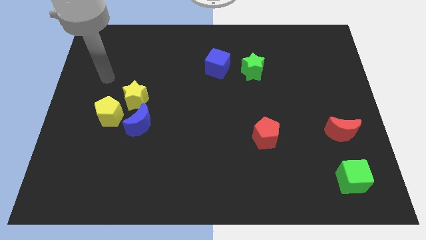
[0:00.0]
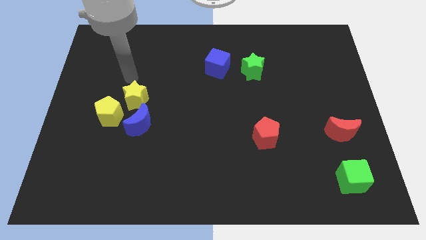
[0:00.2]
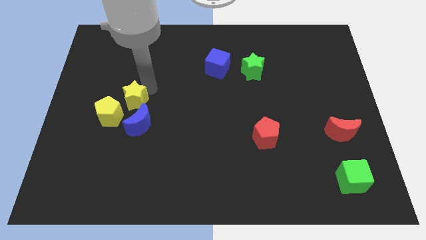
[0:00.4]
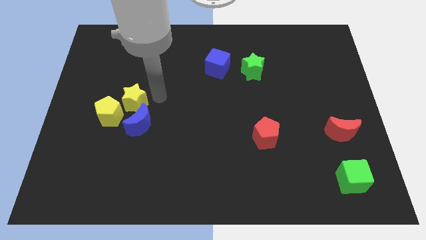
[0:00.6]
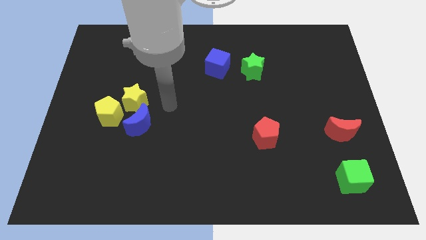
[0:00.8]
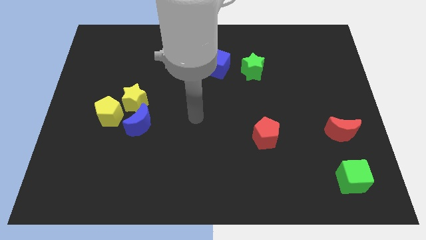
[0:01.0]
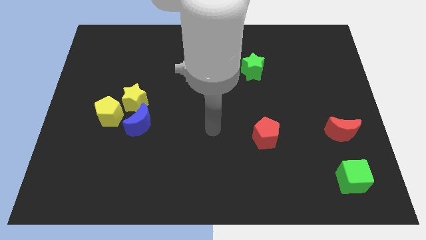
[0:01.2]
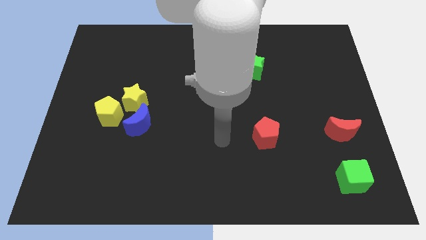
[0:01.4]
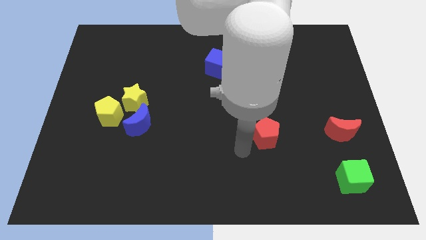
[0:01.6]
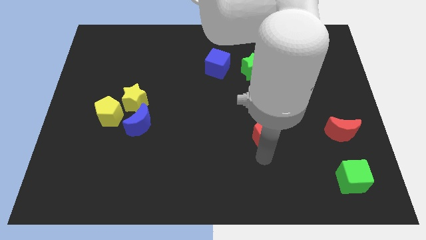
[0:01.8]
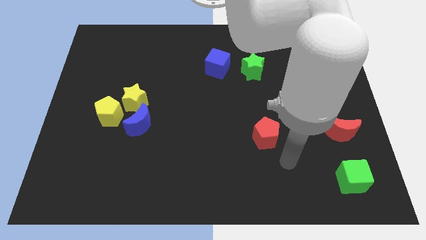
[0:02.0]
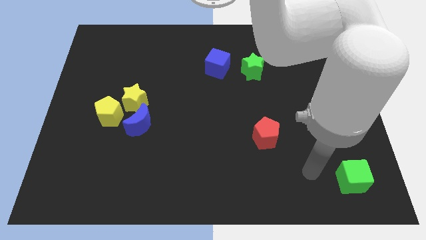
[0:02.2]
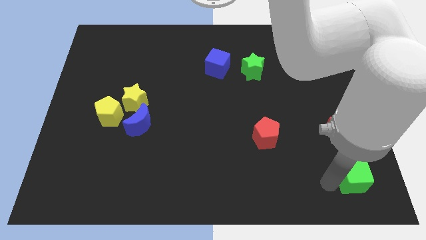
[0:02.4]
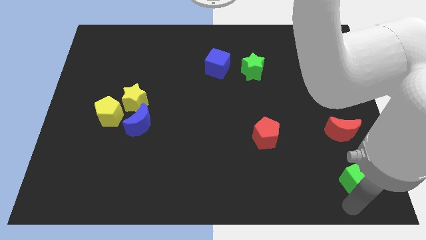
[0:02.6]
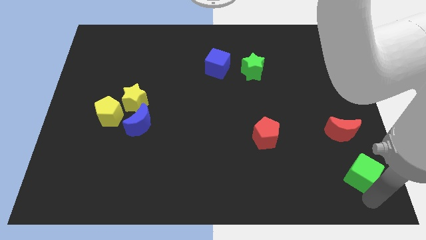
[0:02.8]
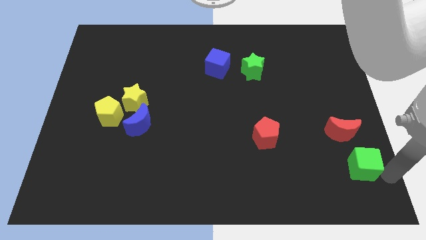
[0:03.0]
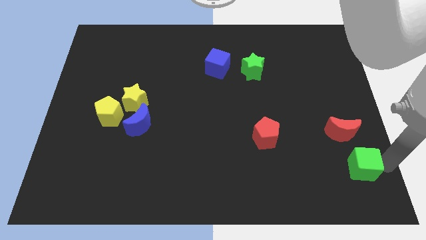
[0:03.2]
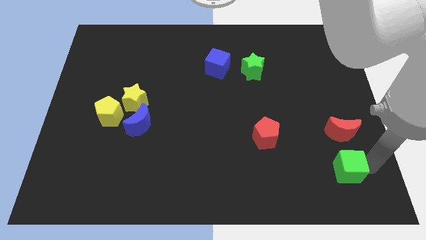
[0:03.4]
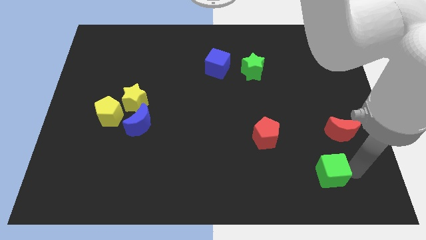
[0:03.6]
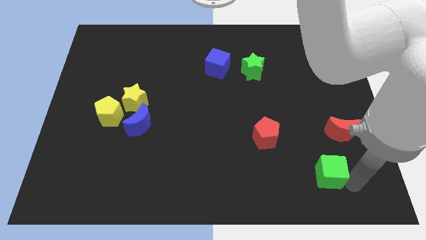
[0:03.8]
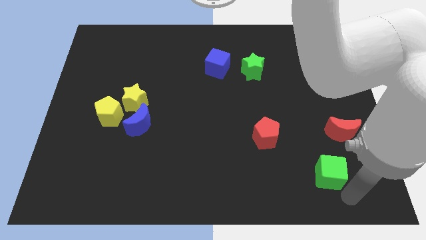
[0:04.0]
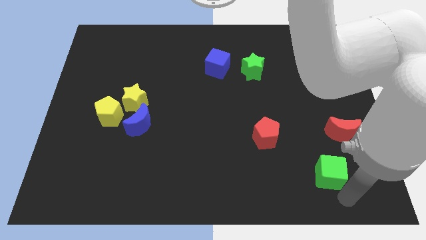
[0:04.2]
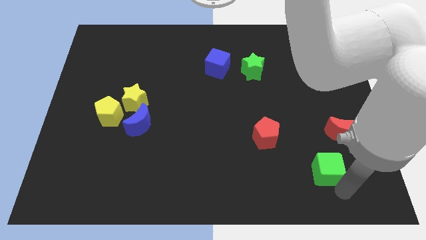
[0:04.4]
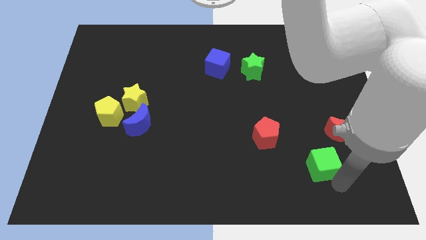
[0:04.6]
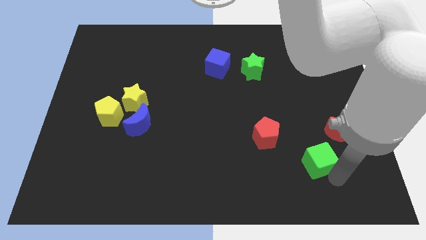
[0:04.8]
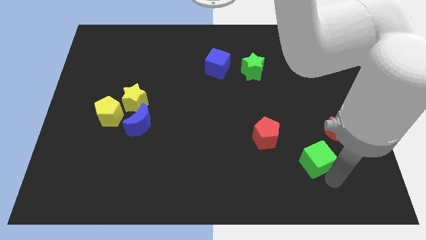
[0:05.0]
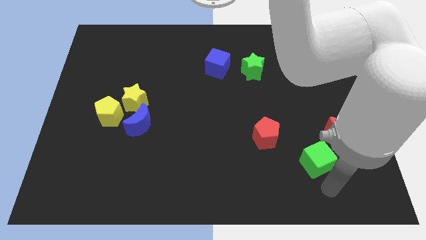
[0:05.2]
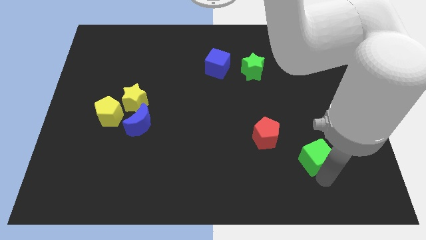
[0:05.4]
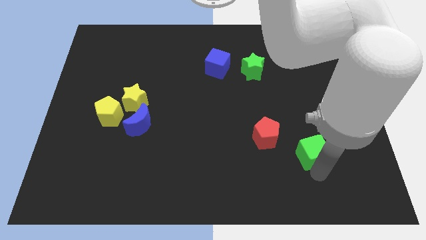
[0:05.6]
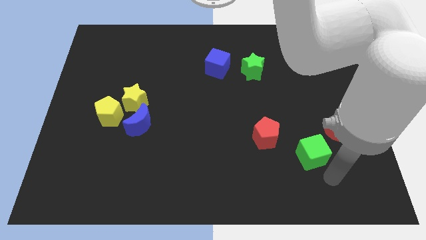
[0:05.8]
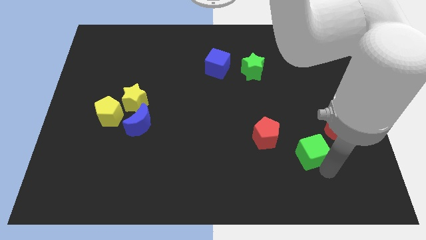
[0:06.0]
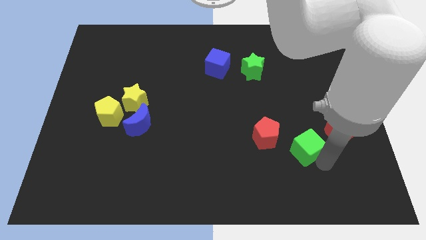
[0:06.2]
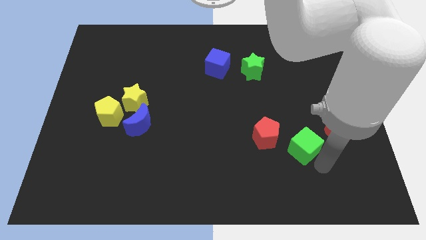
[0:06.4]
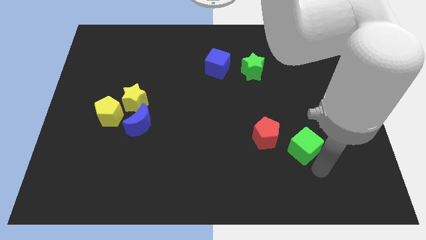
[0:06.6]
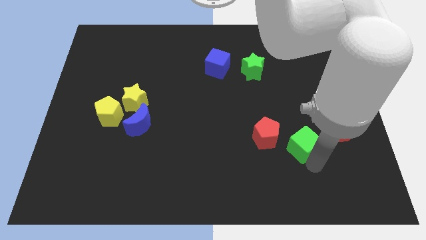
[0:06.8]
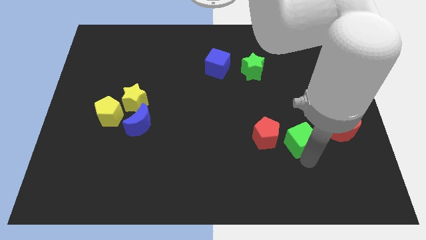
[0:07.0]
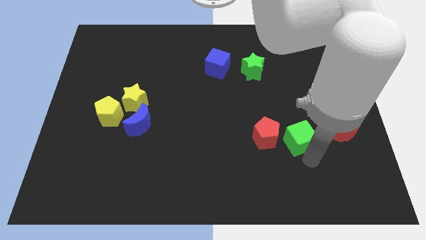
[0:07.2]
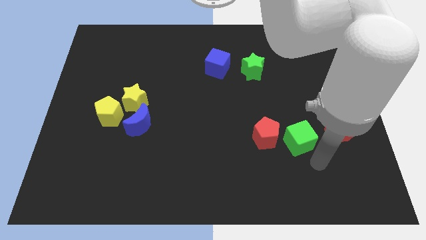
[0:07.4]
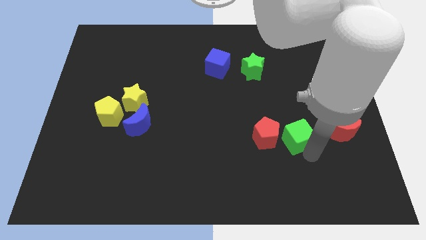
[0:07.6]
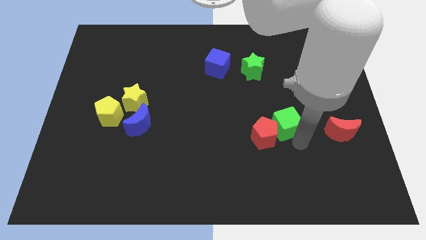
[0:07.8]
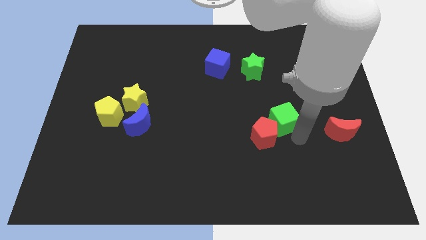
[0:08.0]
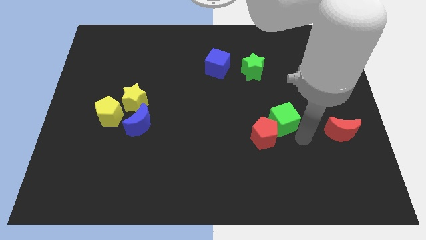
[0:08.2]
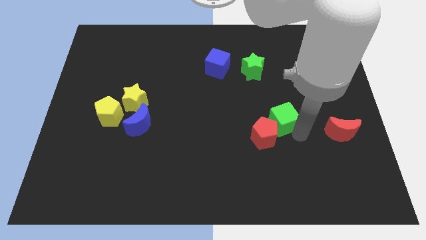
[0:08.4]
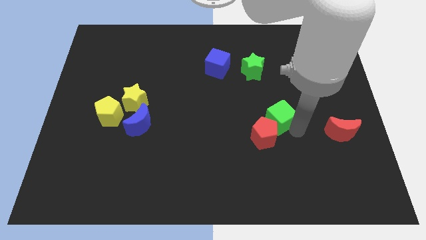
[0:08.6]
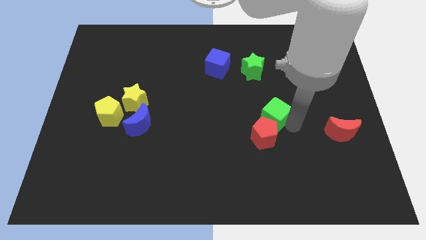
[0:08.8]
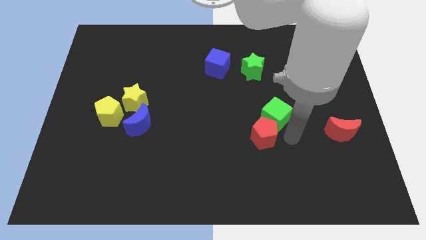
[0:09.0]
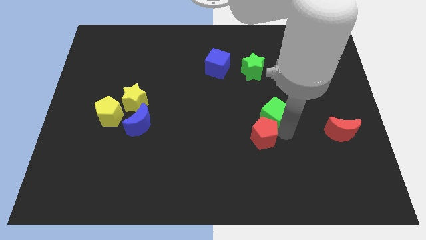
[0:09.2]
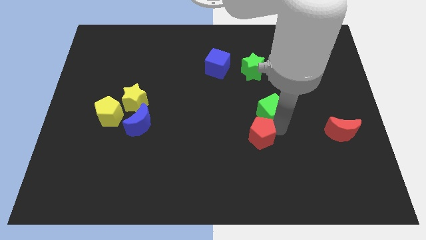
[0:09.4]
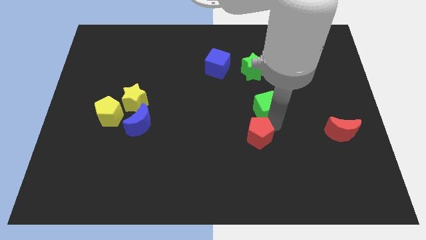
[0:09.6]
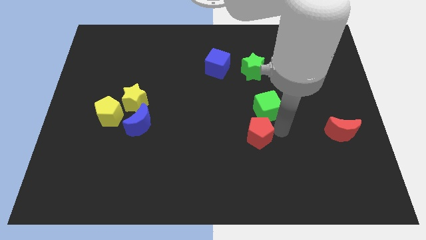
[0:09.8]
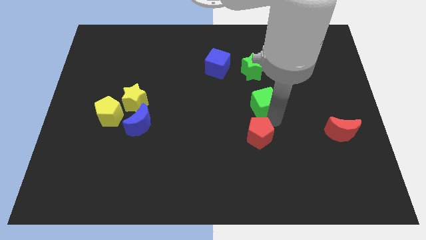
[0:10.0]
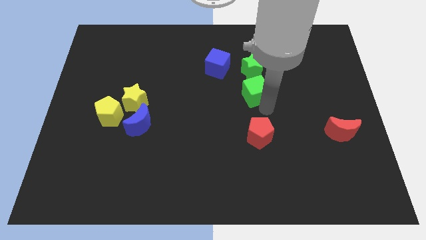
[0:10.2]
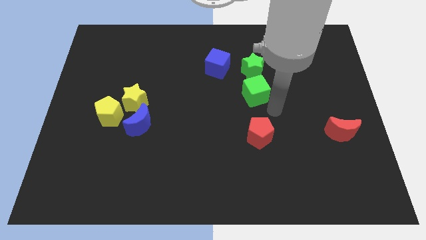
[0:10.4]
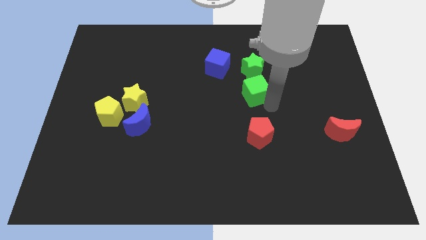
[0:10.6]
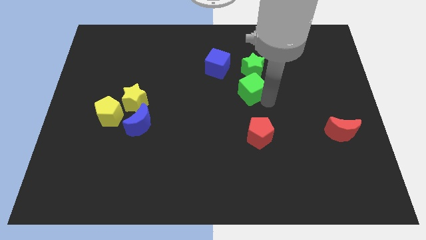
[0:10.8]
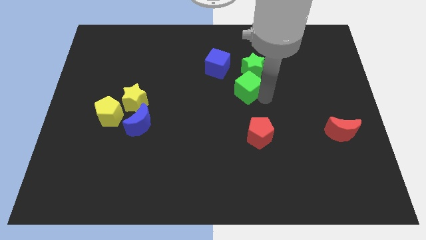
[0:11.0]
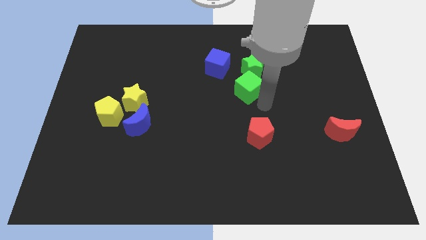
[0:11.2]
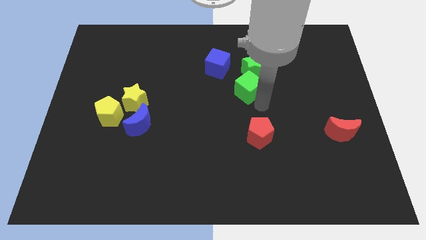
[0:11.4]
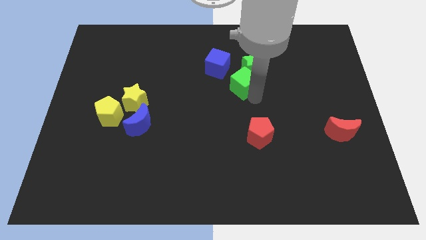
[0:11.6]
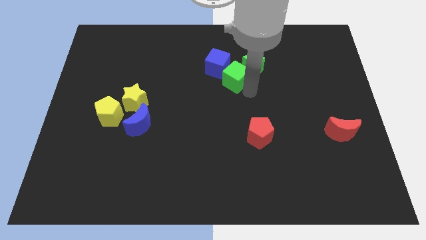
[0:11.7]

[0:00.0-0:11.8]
move the green cube to the blue cube

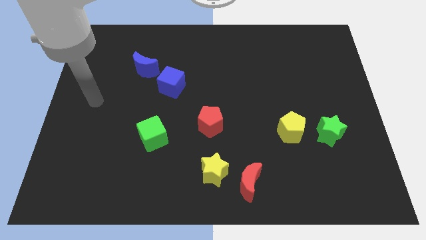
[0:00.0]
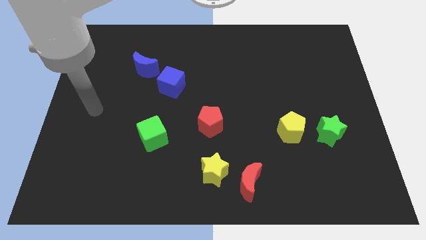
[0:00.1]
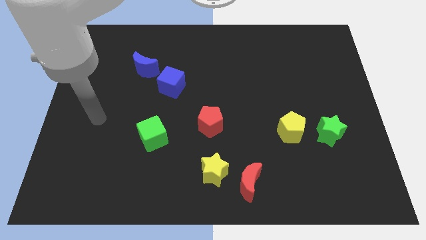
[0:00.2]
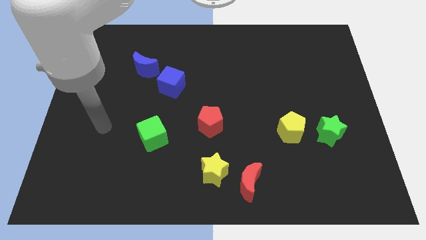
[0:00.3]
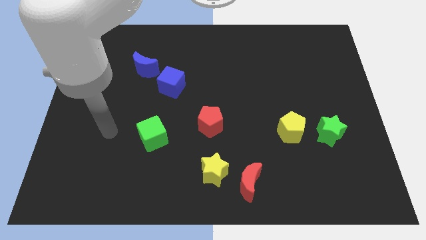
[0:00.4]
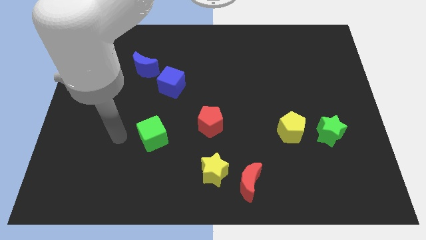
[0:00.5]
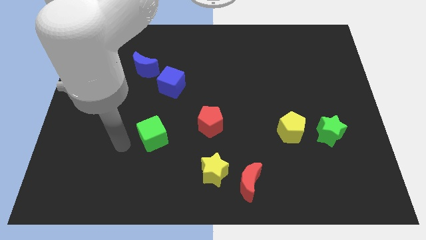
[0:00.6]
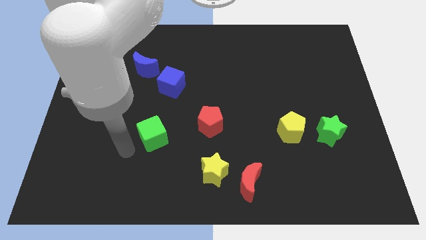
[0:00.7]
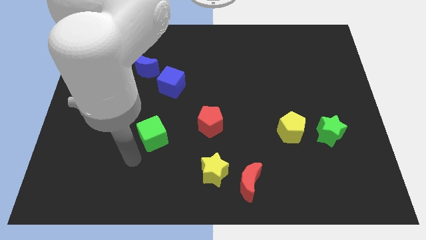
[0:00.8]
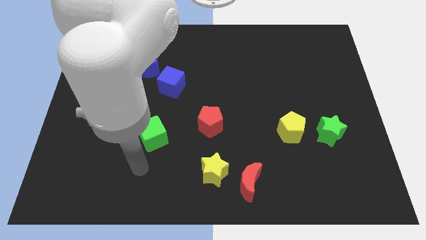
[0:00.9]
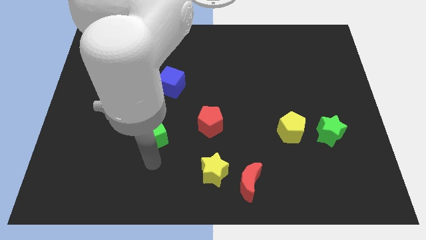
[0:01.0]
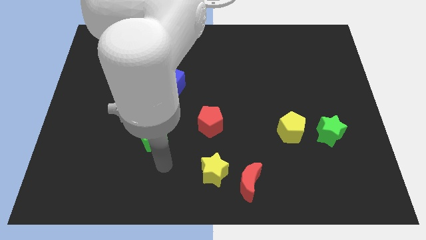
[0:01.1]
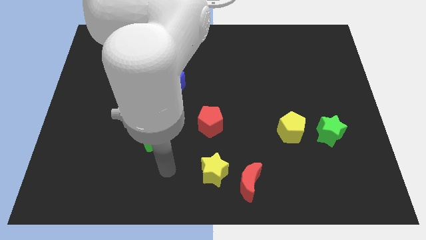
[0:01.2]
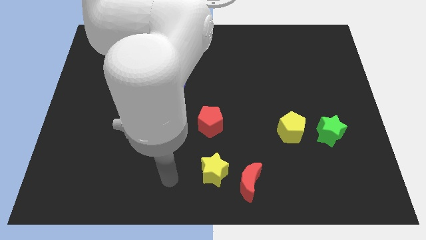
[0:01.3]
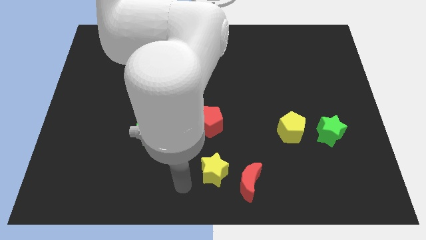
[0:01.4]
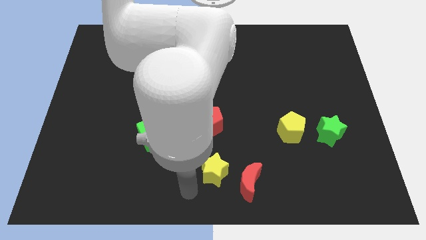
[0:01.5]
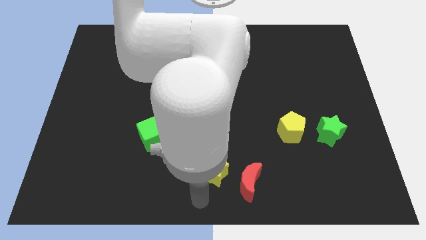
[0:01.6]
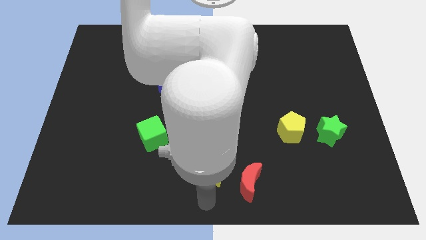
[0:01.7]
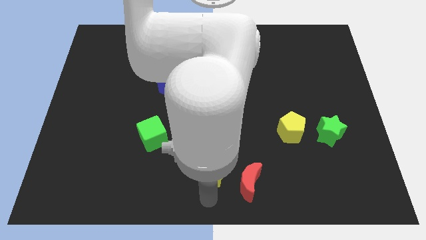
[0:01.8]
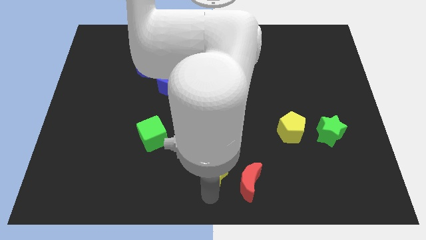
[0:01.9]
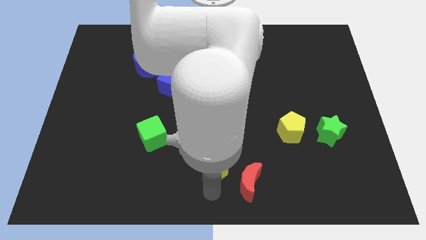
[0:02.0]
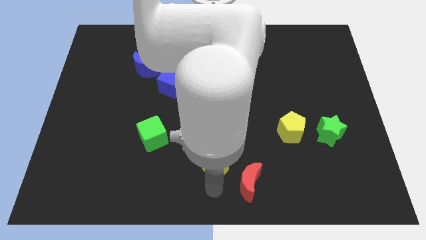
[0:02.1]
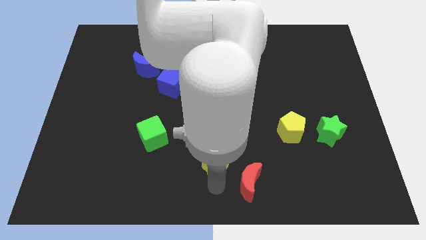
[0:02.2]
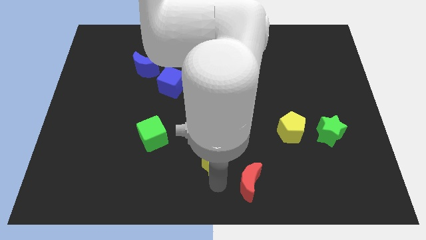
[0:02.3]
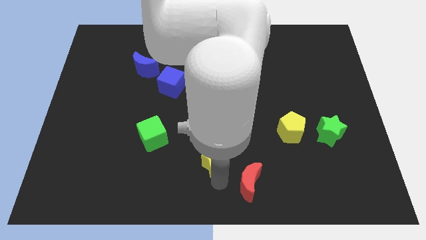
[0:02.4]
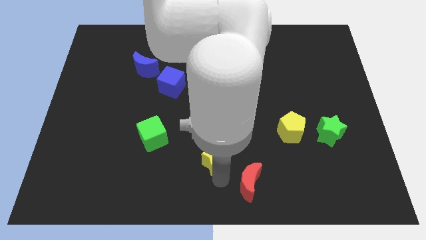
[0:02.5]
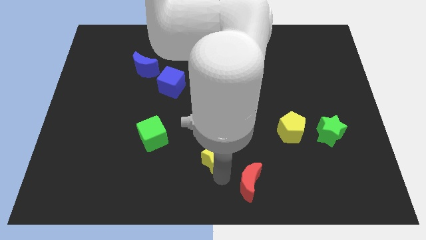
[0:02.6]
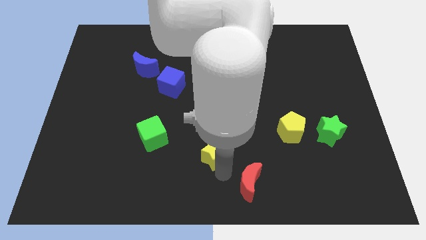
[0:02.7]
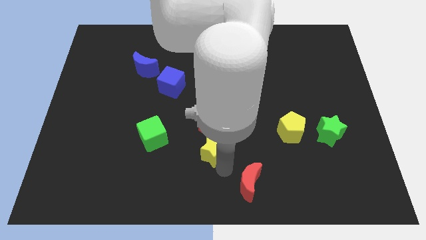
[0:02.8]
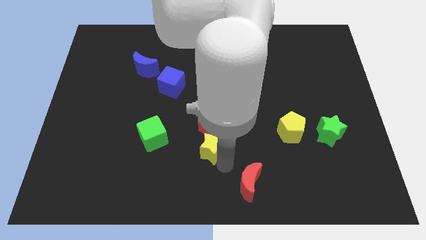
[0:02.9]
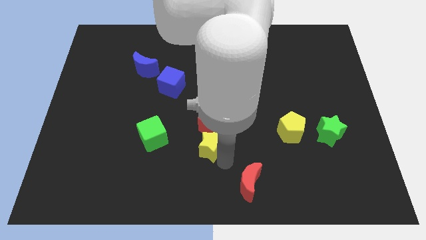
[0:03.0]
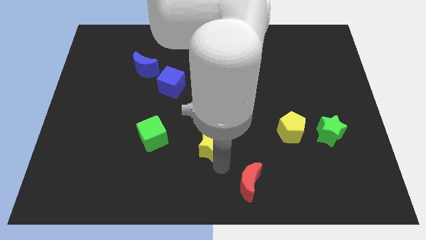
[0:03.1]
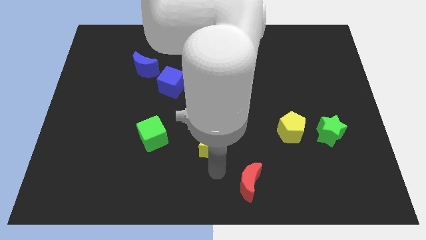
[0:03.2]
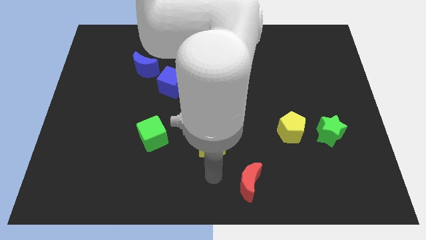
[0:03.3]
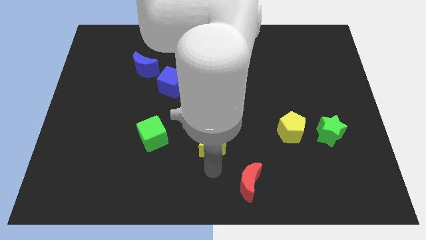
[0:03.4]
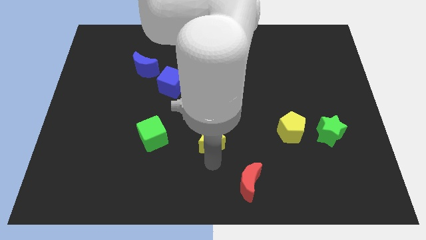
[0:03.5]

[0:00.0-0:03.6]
put the yellow star to the red pentagon
